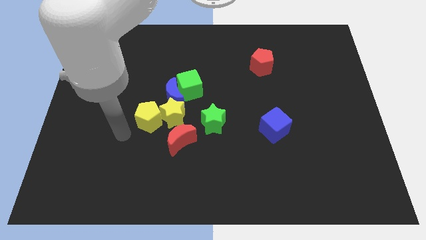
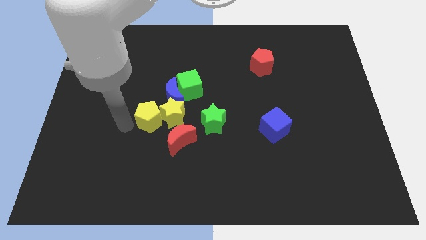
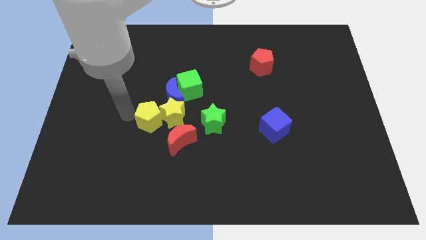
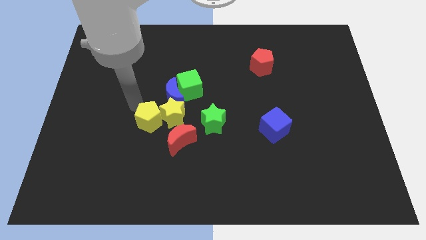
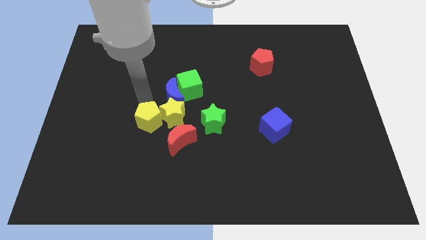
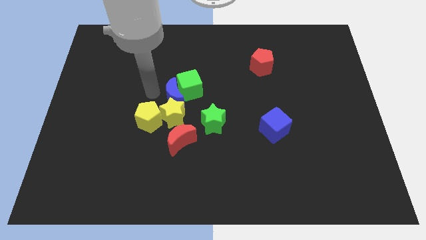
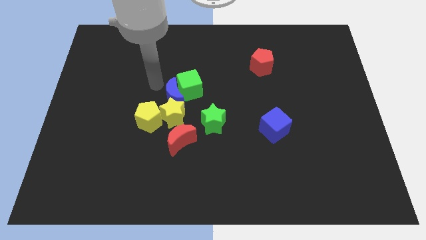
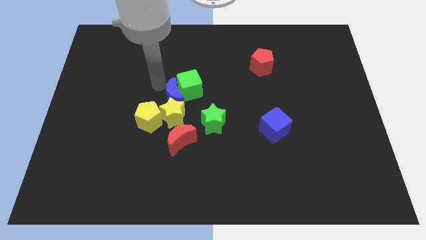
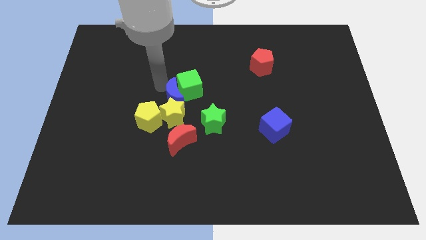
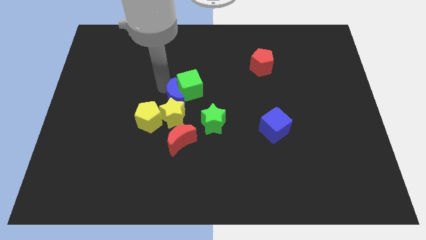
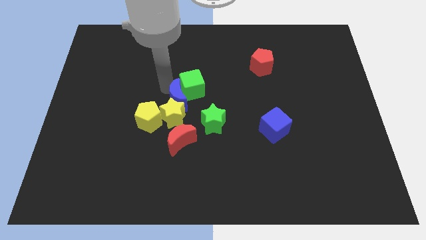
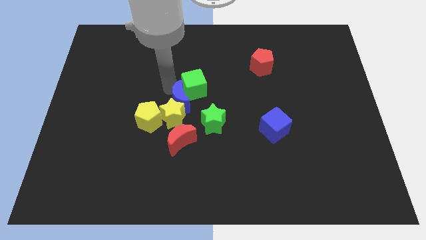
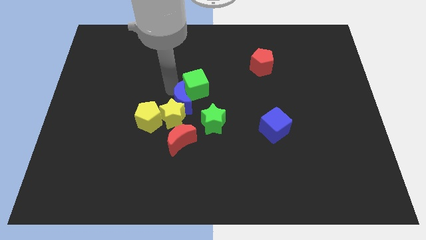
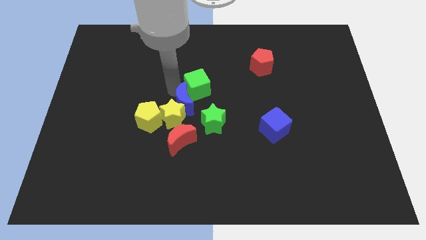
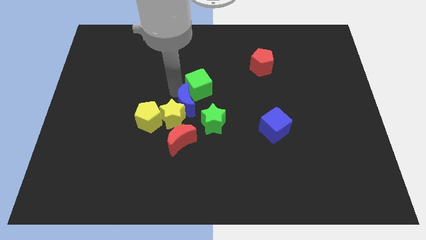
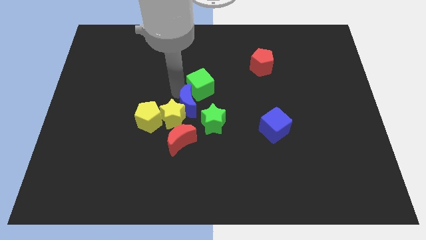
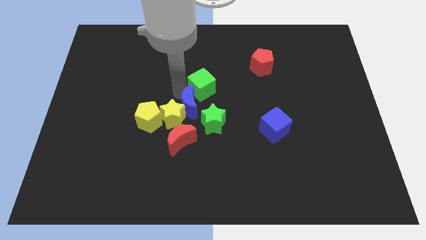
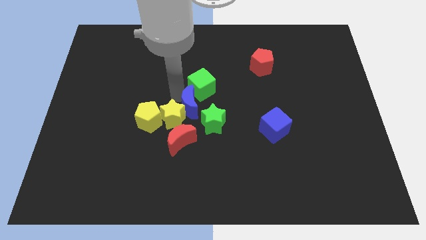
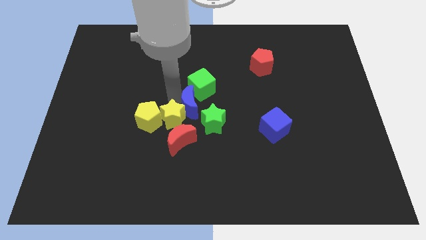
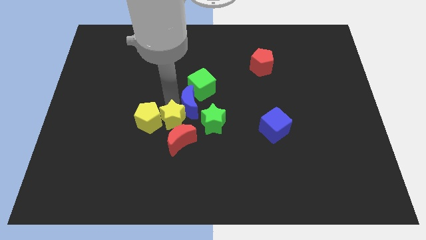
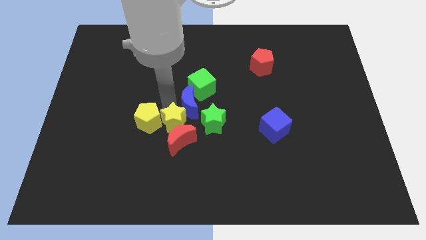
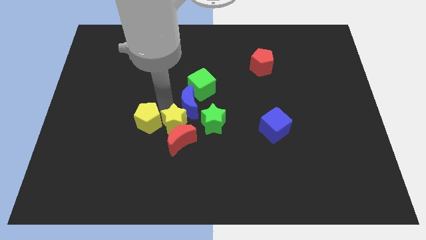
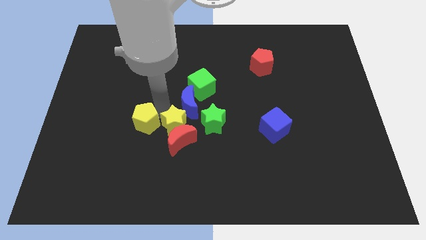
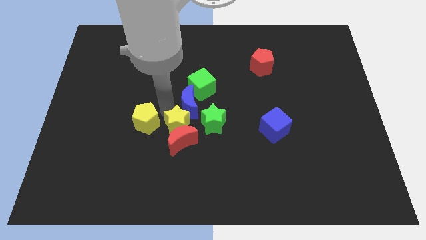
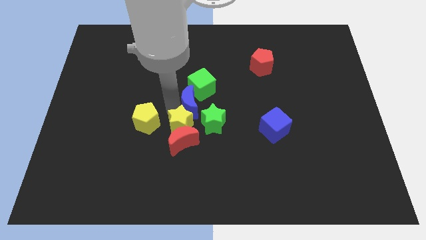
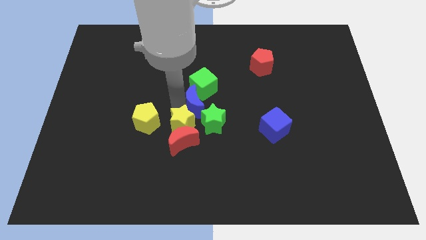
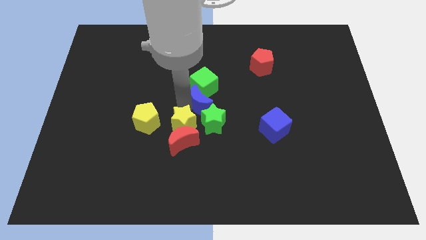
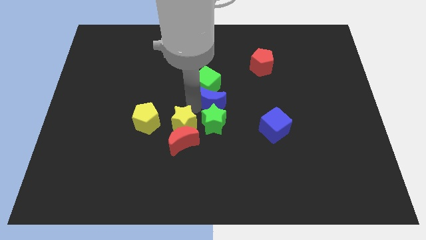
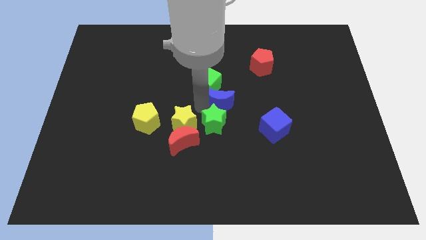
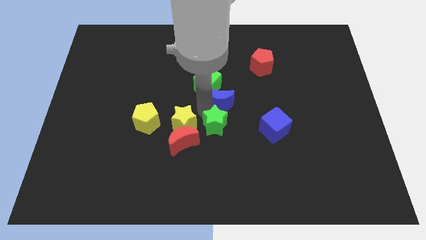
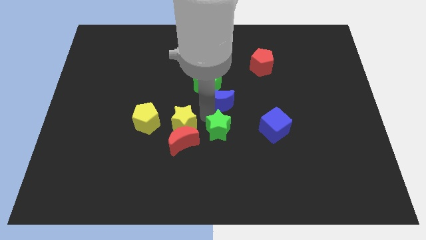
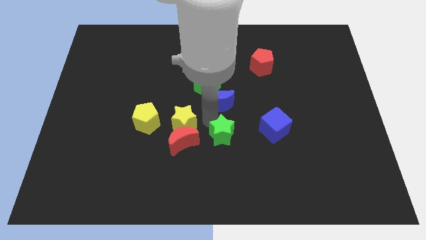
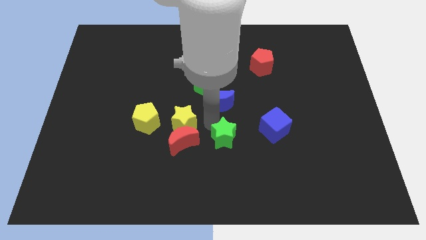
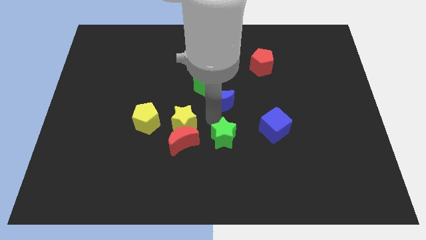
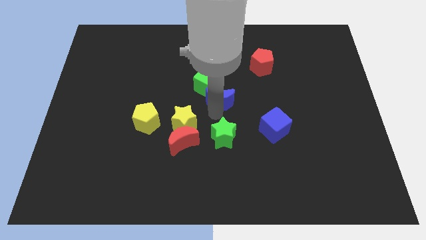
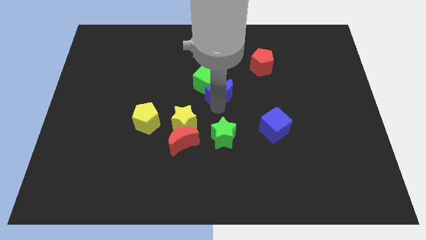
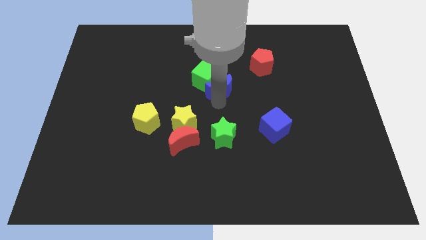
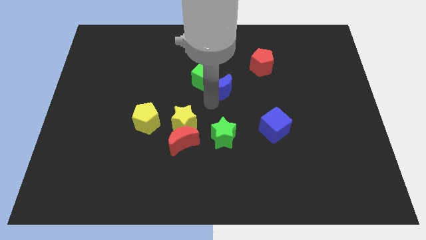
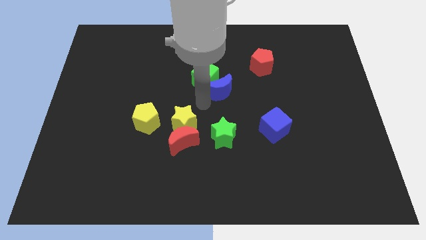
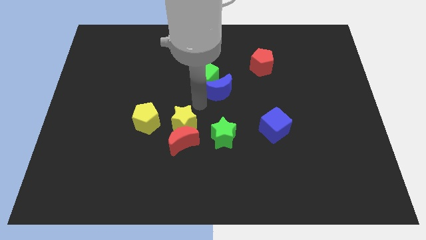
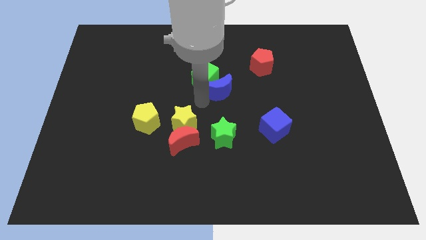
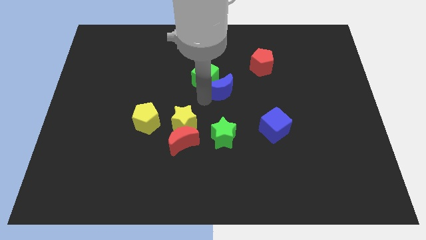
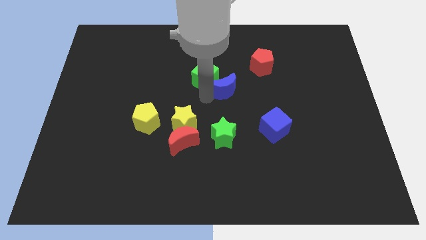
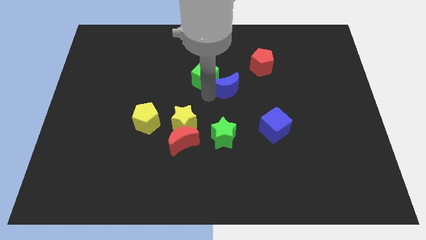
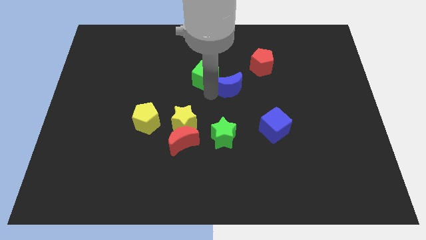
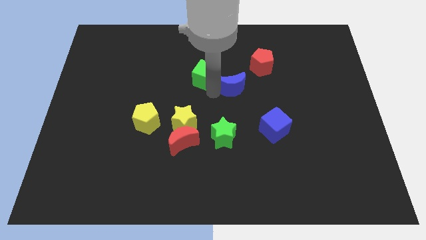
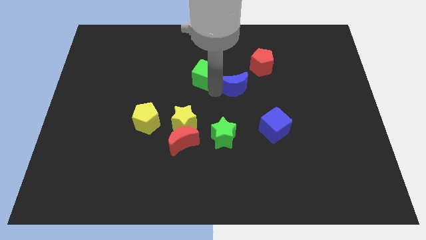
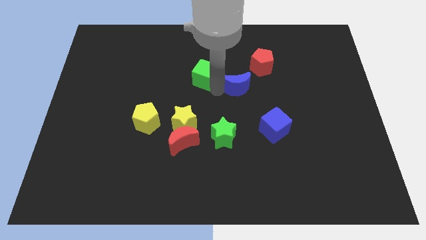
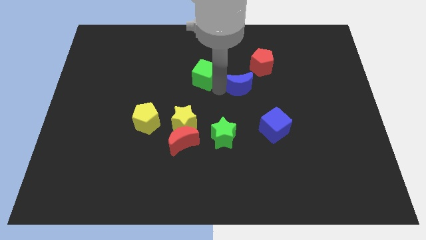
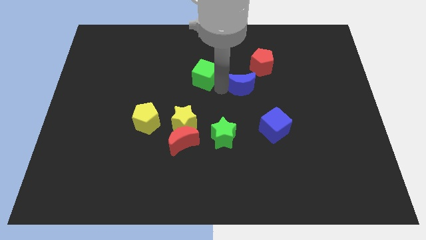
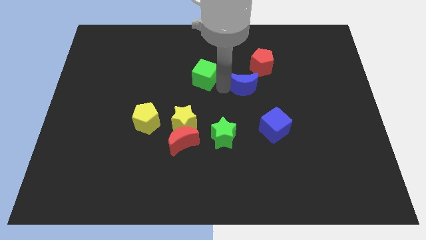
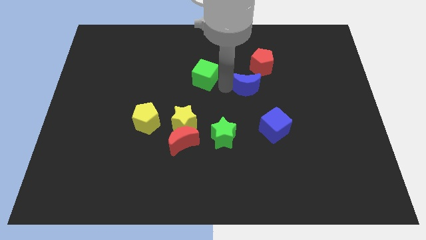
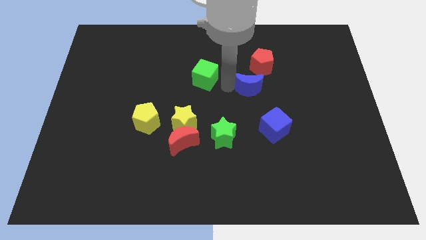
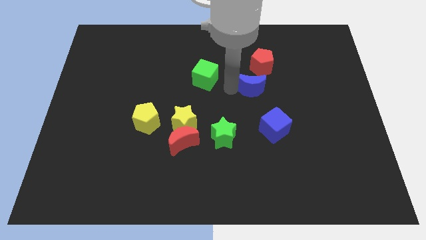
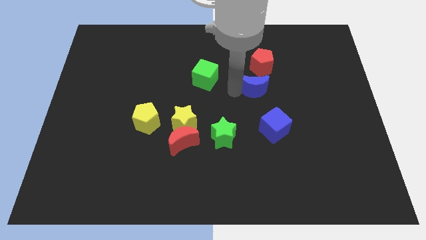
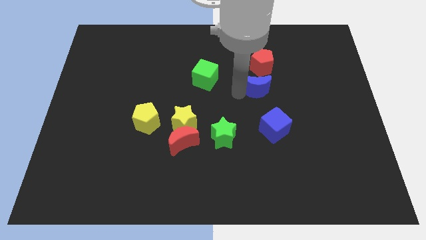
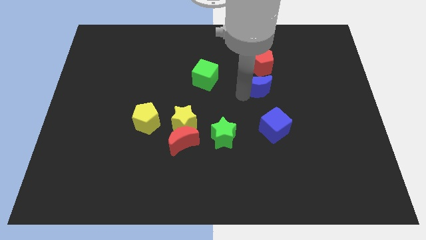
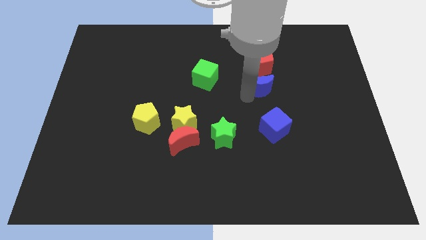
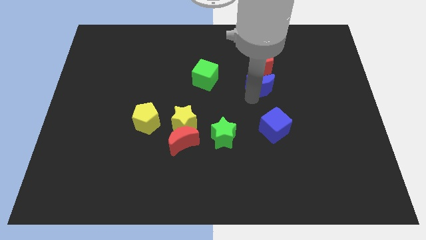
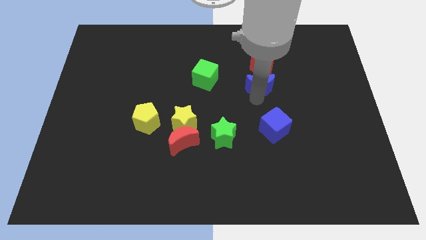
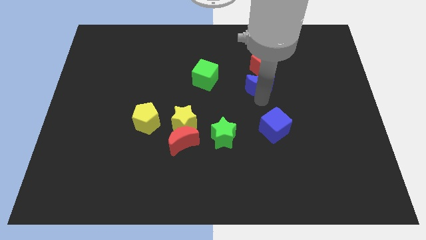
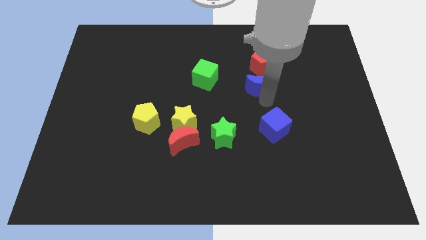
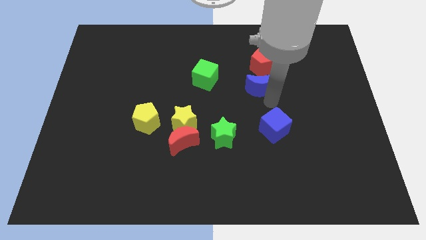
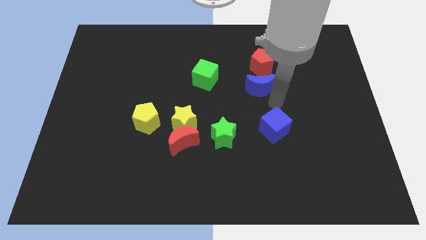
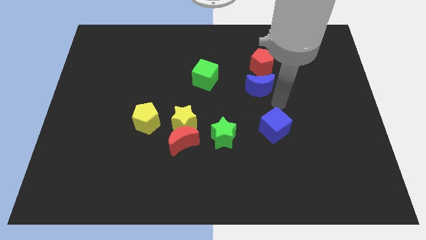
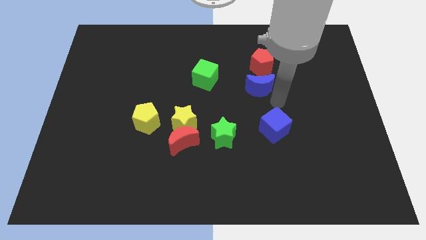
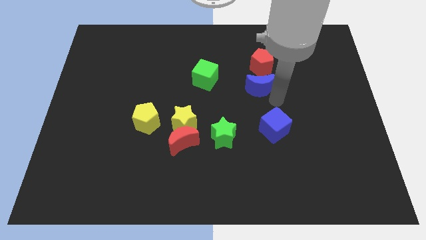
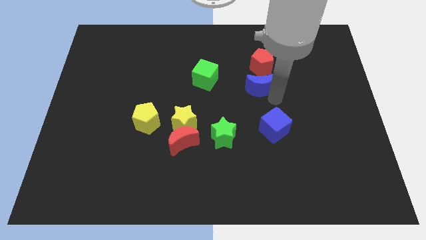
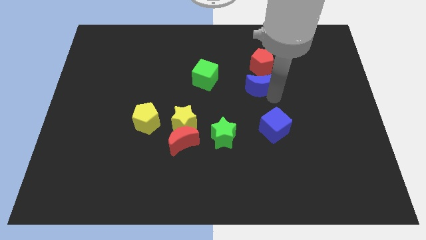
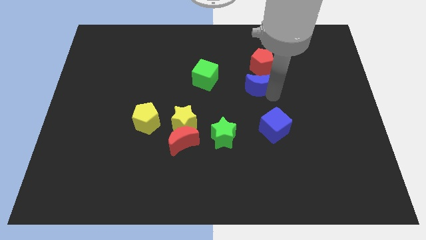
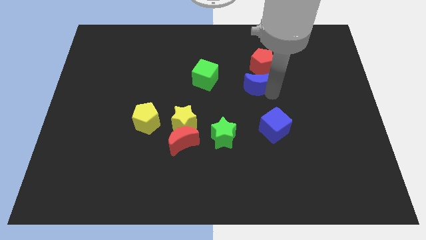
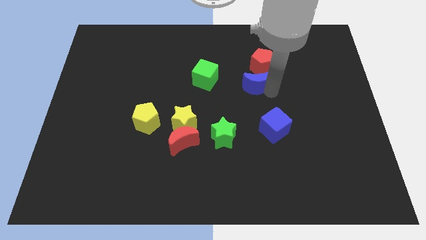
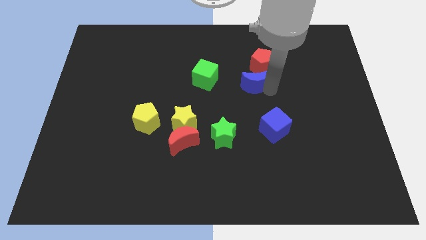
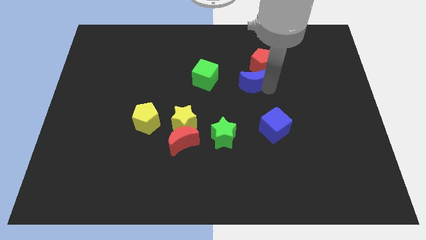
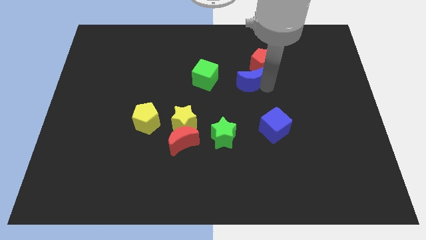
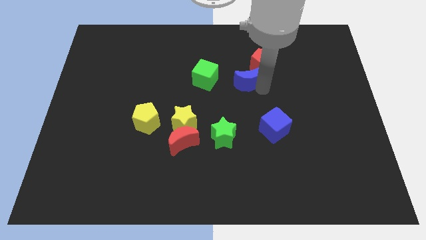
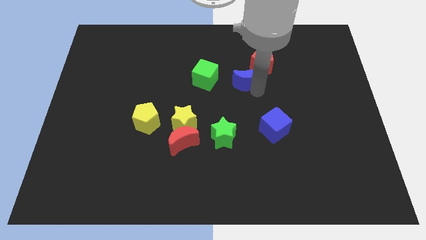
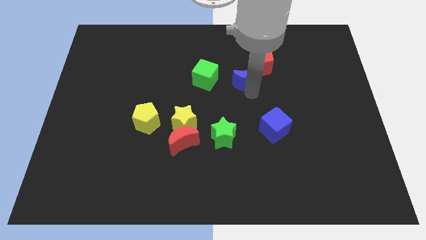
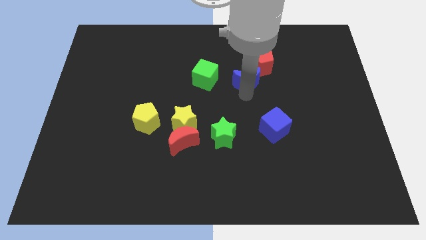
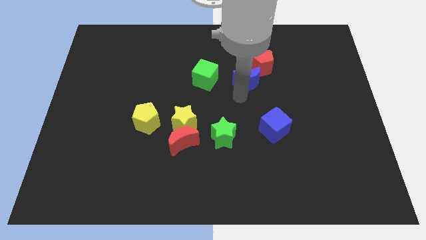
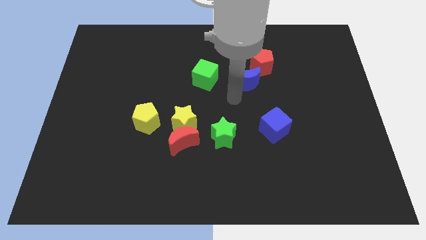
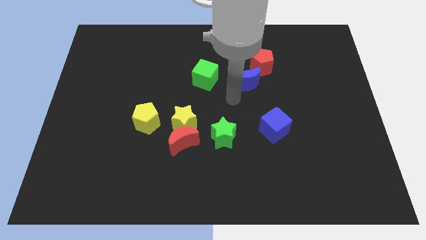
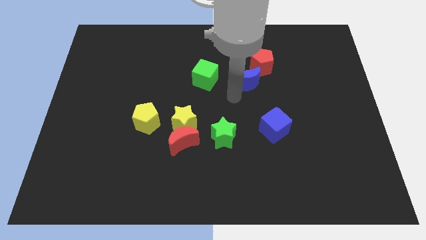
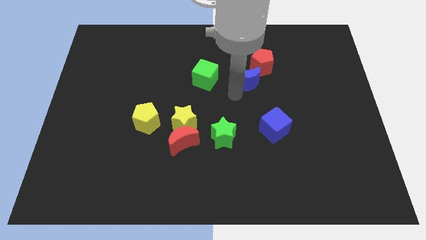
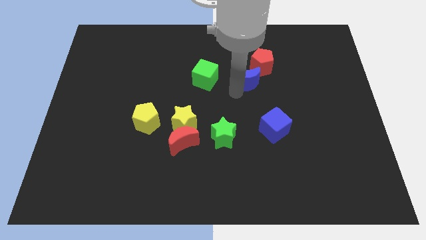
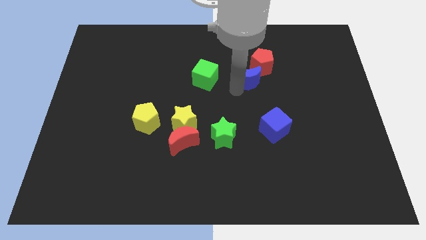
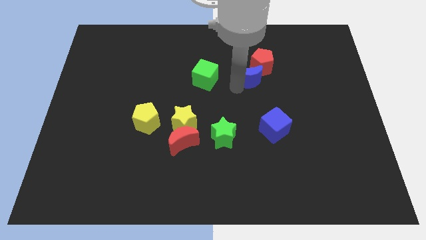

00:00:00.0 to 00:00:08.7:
push the blue moon next to the red pentagon
